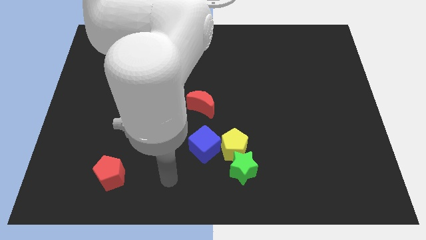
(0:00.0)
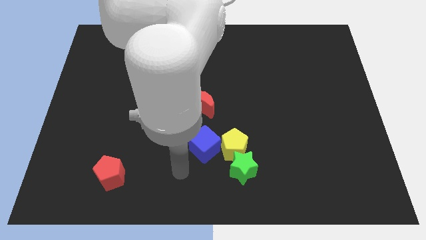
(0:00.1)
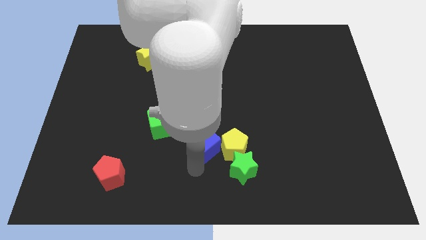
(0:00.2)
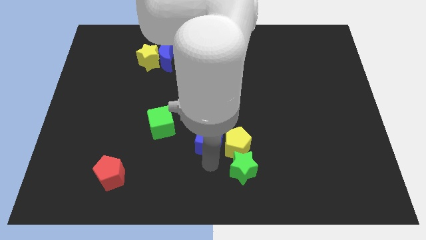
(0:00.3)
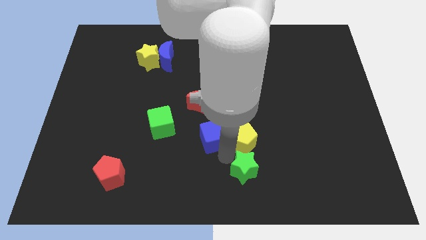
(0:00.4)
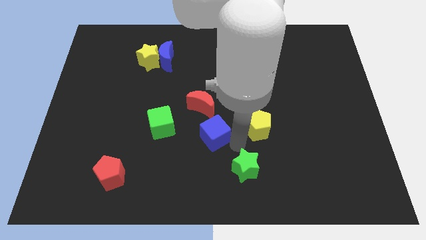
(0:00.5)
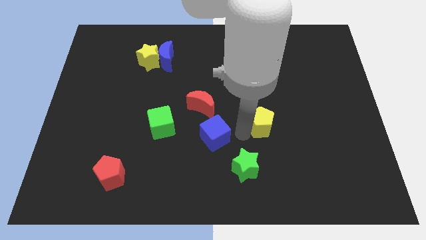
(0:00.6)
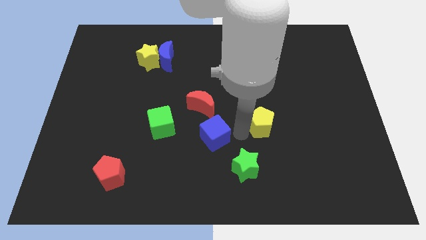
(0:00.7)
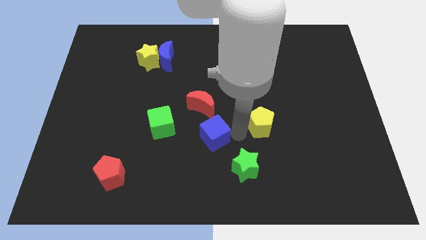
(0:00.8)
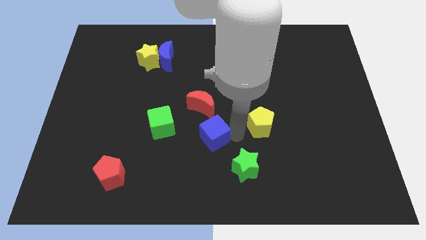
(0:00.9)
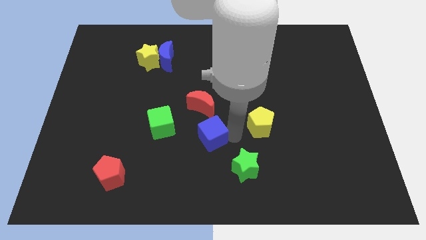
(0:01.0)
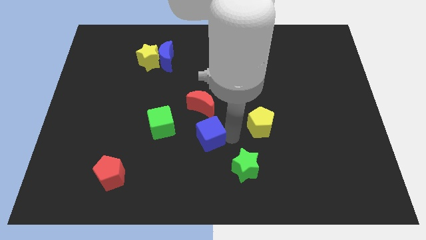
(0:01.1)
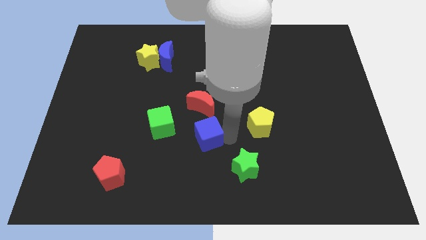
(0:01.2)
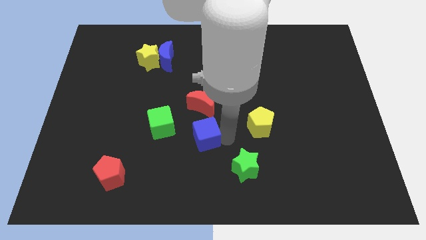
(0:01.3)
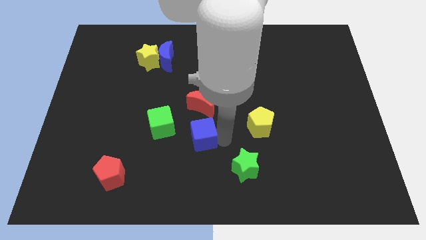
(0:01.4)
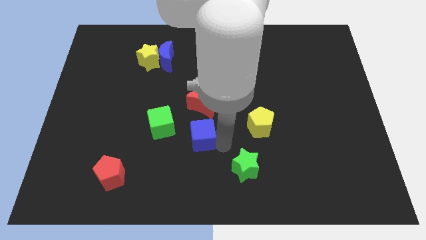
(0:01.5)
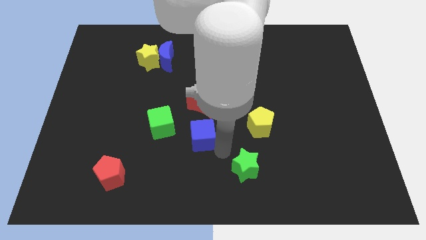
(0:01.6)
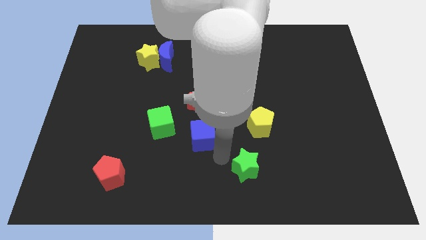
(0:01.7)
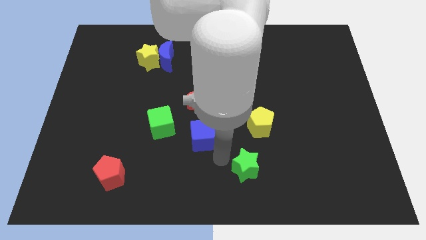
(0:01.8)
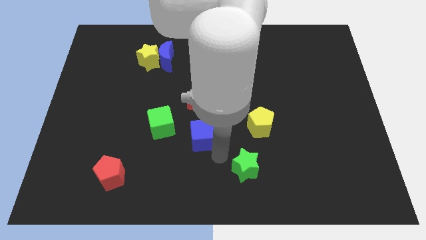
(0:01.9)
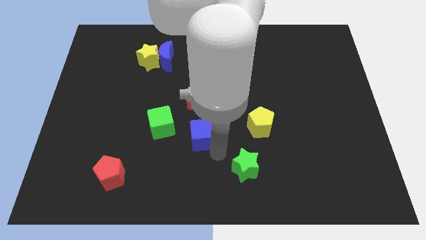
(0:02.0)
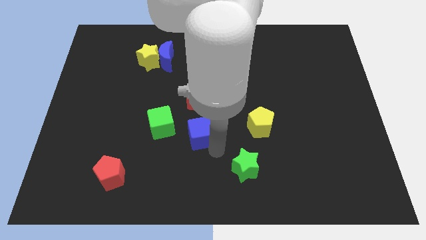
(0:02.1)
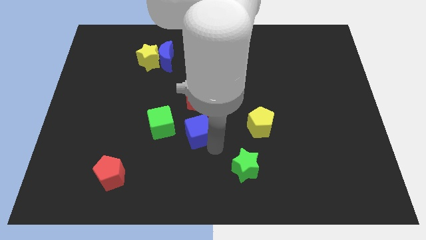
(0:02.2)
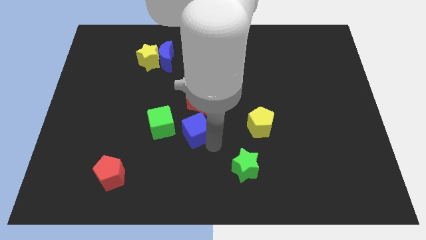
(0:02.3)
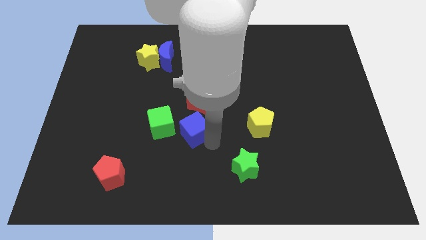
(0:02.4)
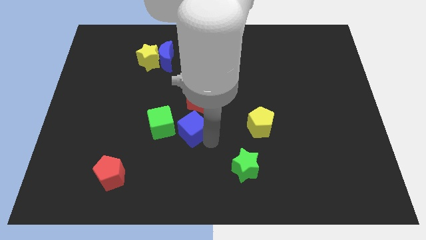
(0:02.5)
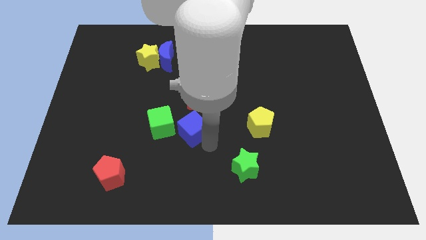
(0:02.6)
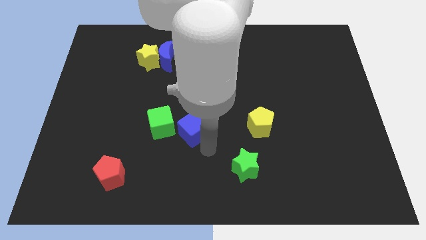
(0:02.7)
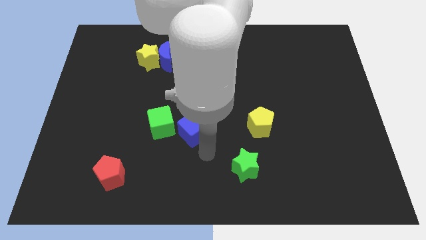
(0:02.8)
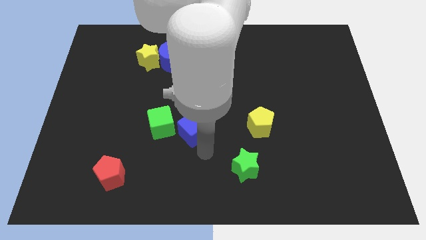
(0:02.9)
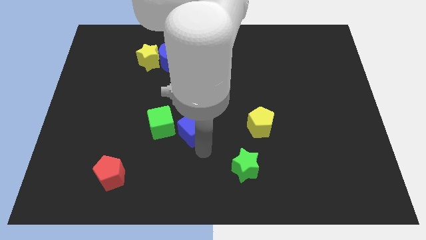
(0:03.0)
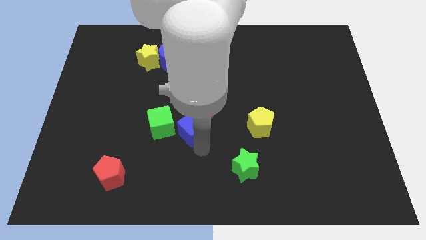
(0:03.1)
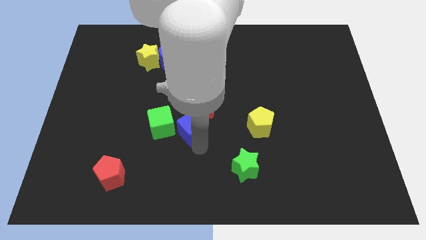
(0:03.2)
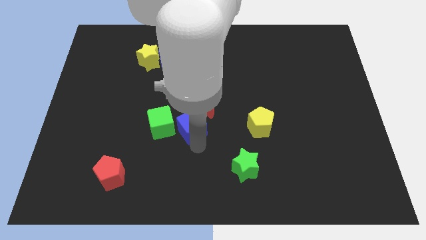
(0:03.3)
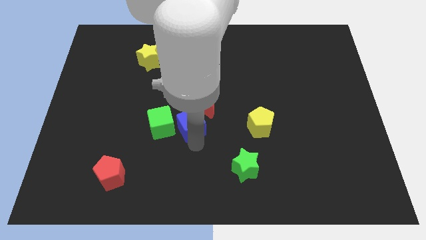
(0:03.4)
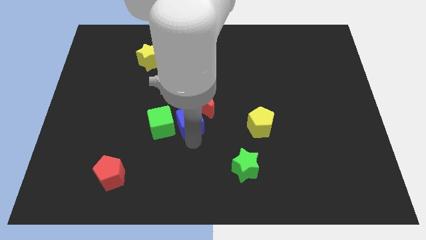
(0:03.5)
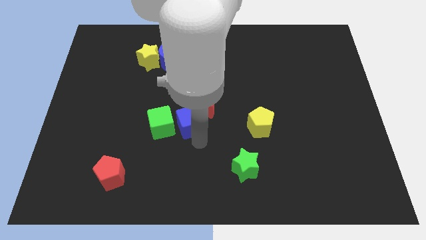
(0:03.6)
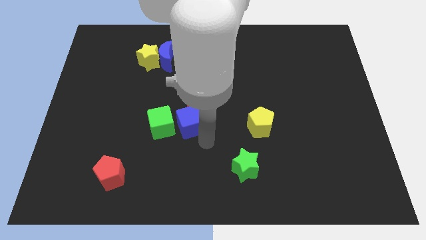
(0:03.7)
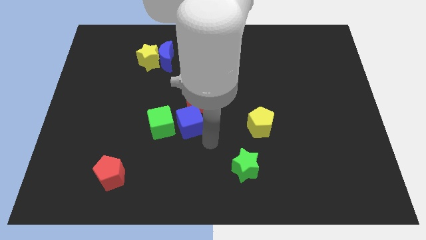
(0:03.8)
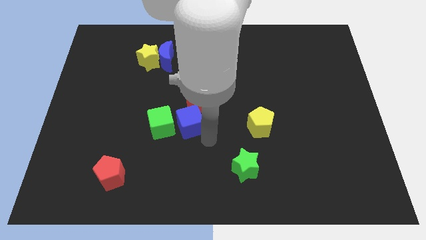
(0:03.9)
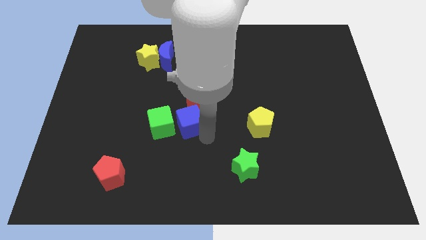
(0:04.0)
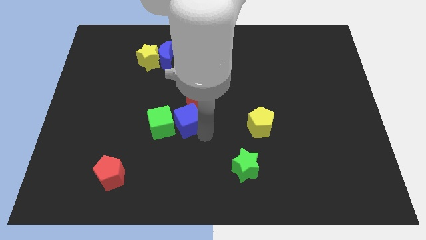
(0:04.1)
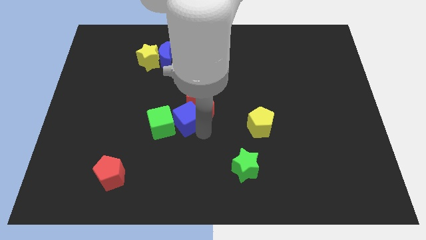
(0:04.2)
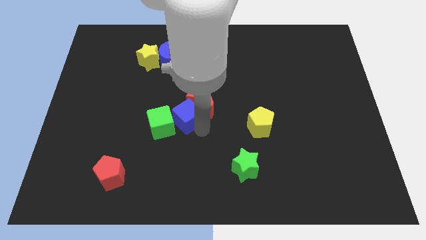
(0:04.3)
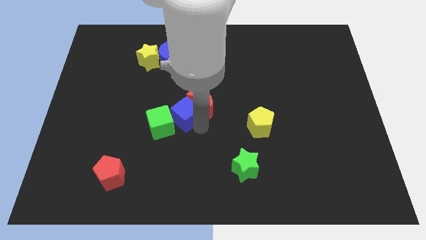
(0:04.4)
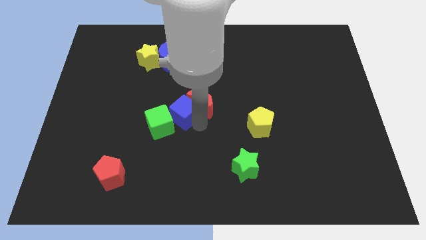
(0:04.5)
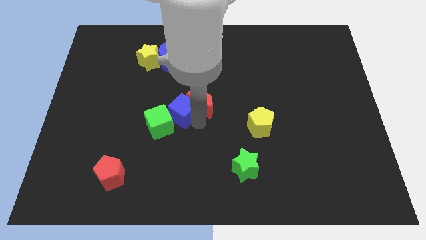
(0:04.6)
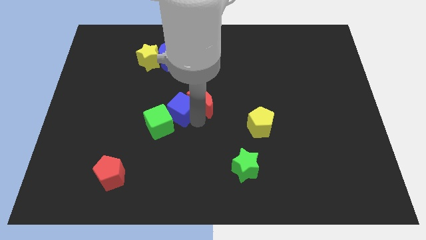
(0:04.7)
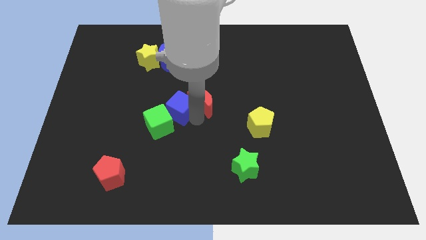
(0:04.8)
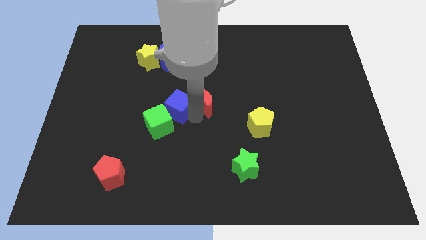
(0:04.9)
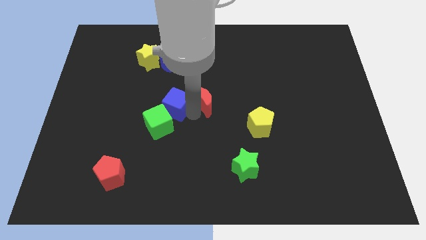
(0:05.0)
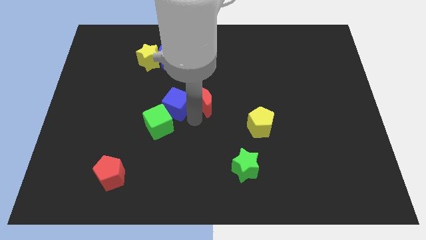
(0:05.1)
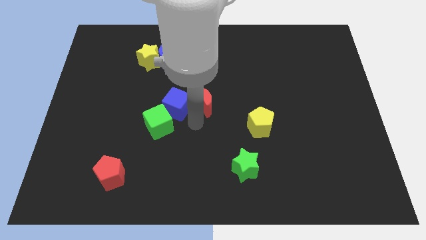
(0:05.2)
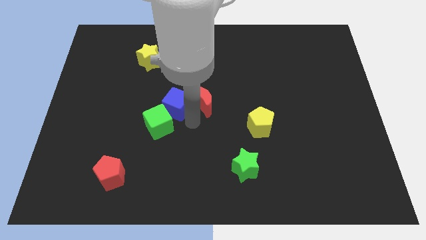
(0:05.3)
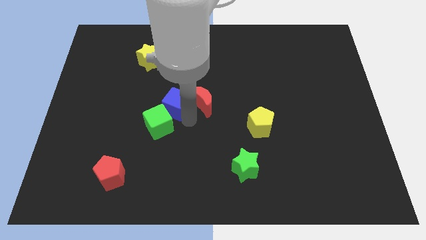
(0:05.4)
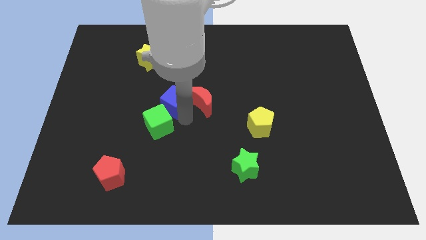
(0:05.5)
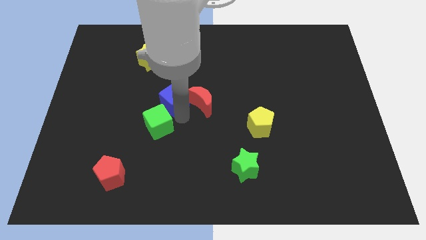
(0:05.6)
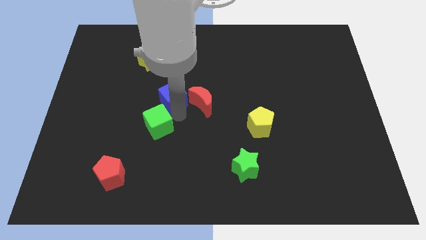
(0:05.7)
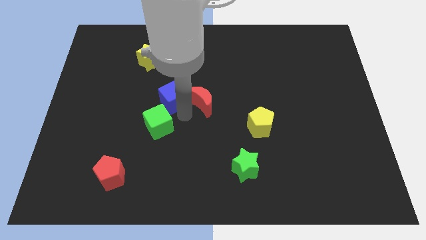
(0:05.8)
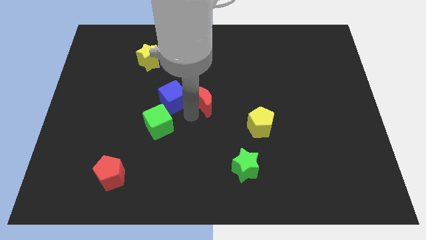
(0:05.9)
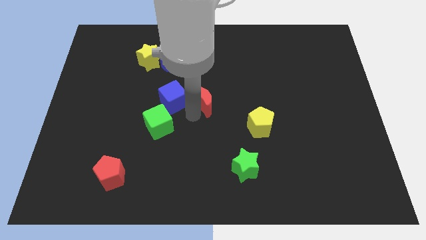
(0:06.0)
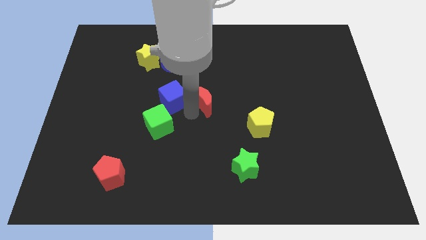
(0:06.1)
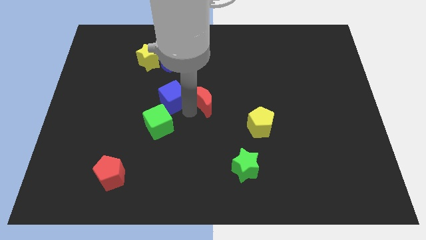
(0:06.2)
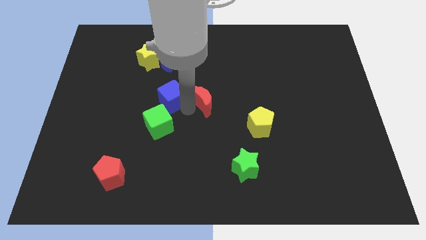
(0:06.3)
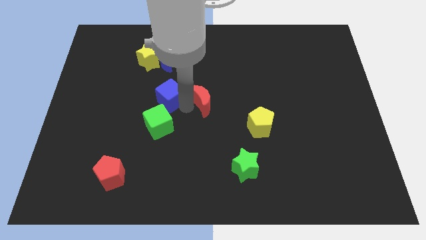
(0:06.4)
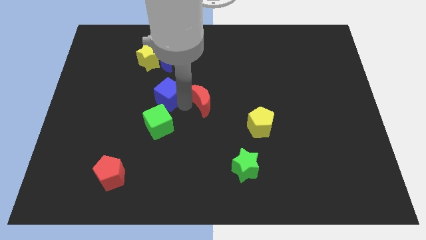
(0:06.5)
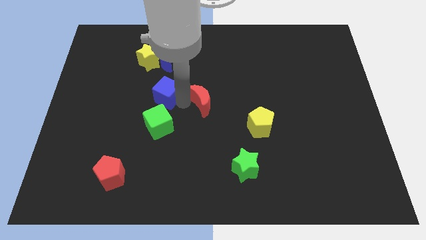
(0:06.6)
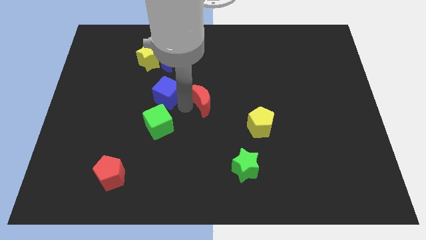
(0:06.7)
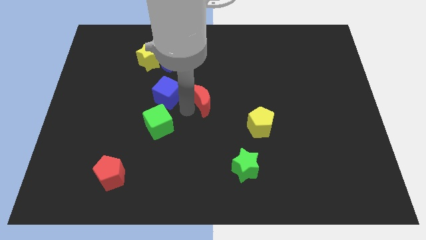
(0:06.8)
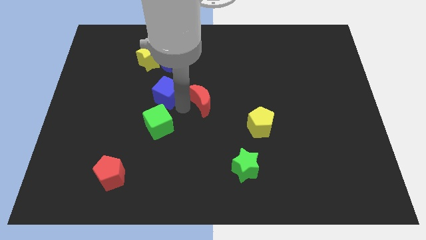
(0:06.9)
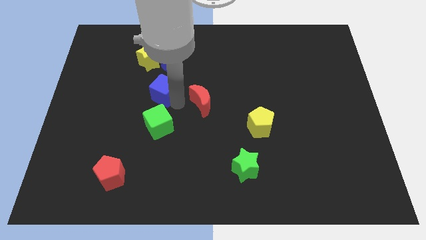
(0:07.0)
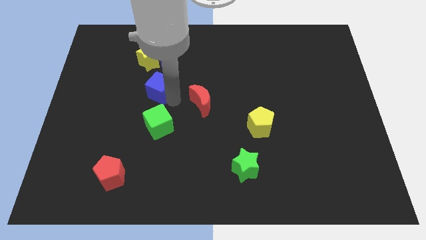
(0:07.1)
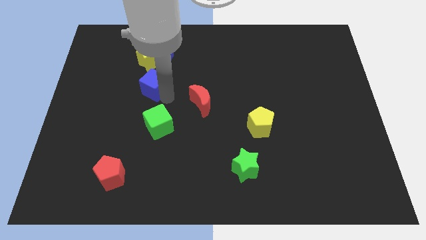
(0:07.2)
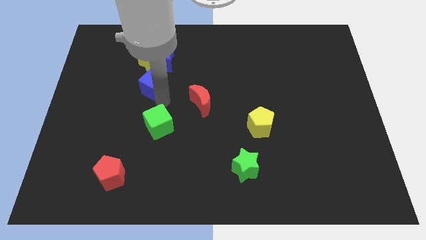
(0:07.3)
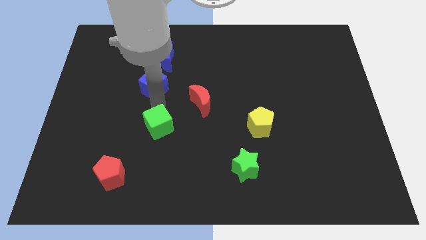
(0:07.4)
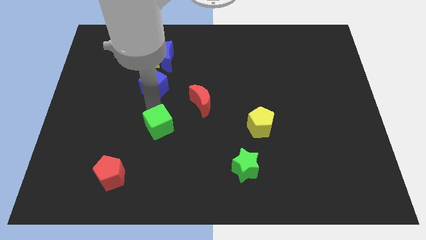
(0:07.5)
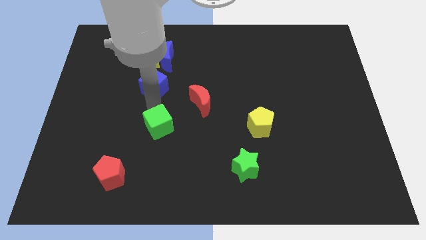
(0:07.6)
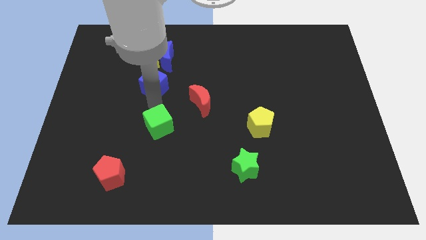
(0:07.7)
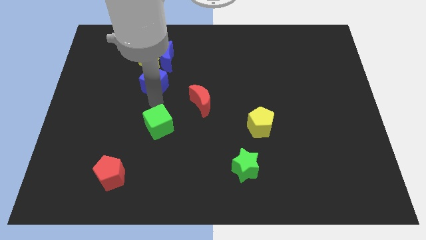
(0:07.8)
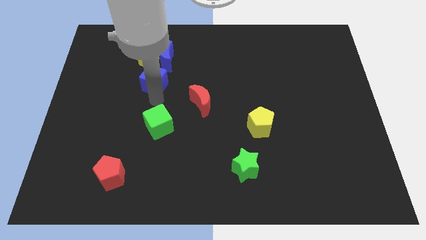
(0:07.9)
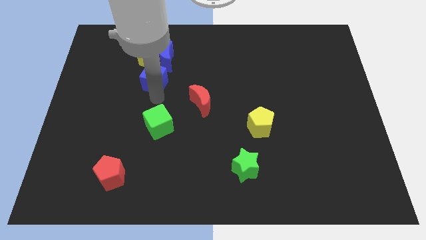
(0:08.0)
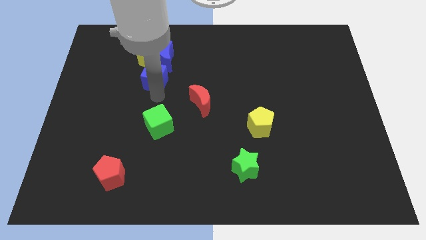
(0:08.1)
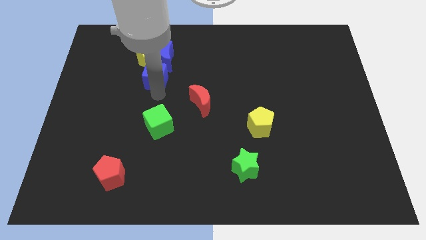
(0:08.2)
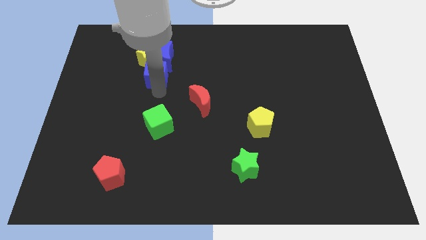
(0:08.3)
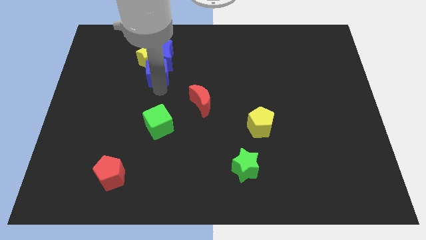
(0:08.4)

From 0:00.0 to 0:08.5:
slide the blue cube towards the yellow star
